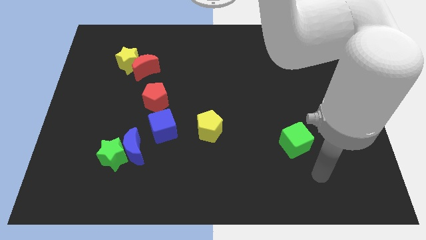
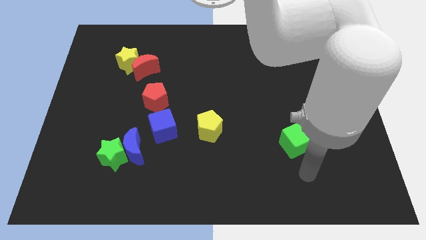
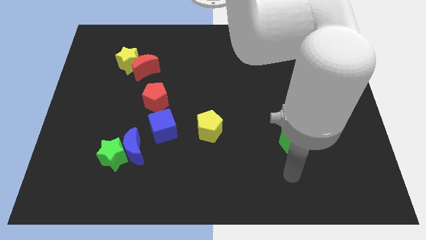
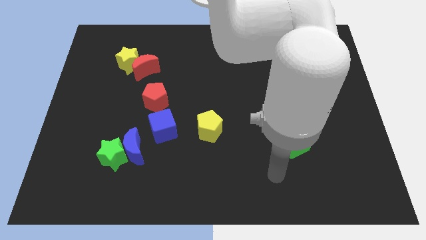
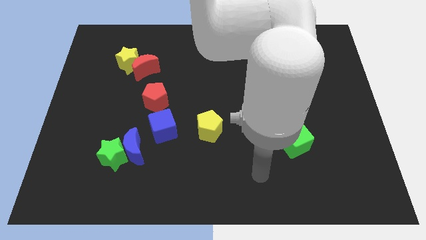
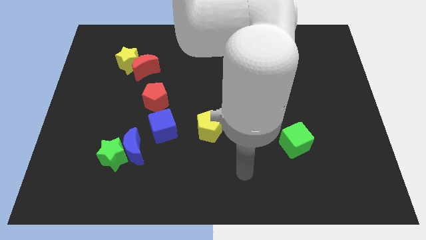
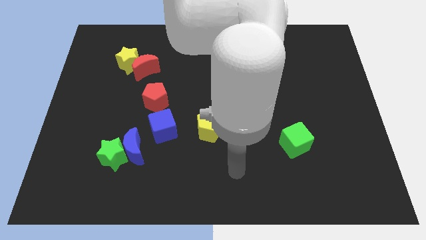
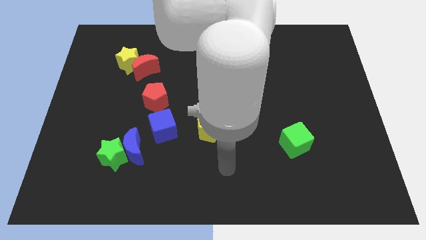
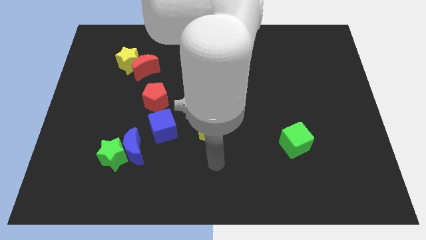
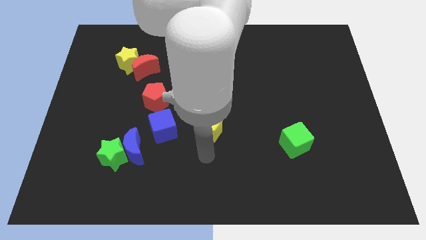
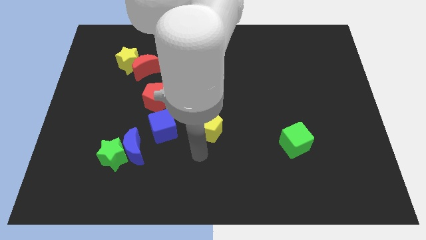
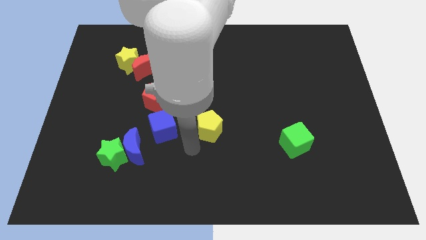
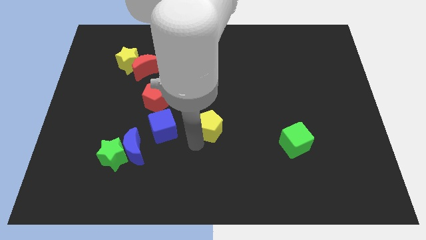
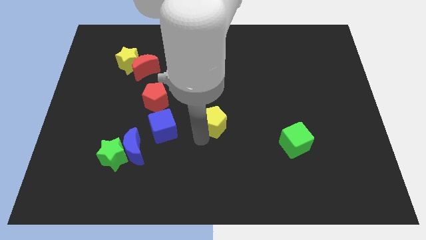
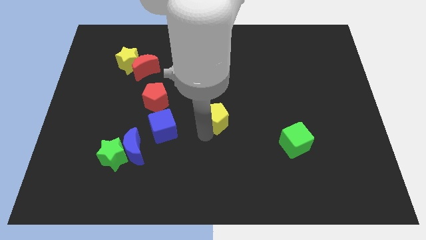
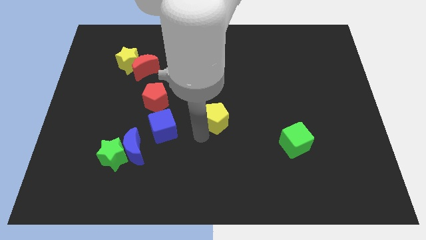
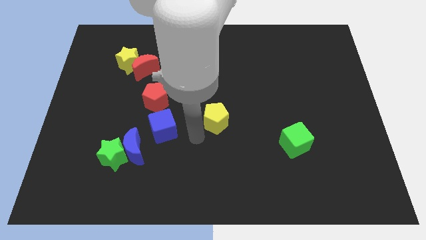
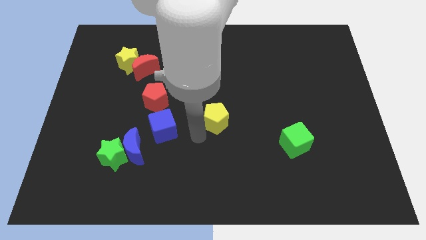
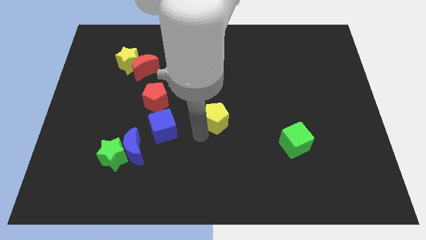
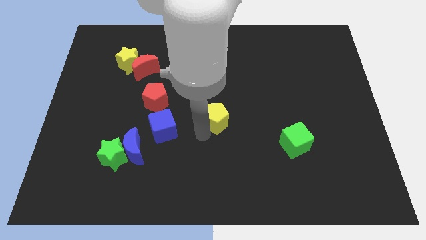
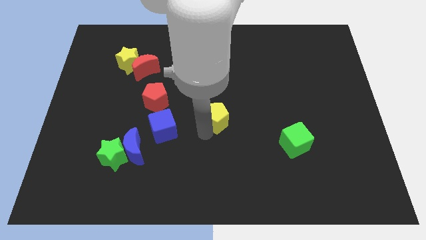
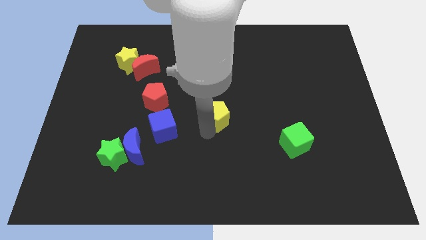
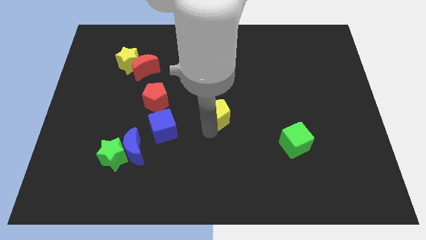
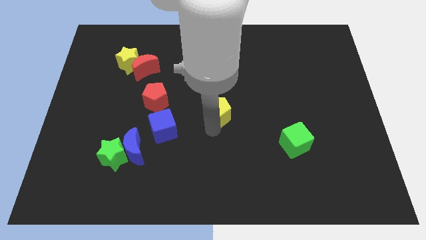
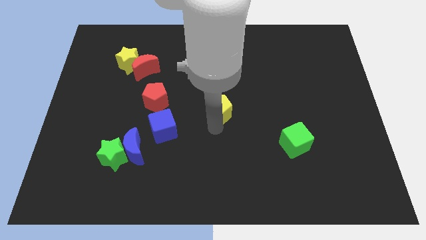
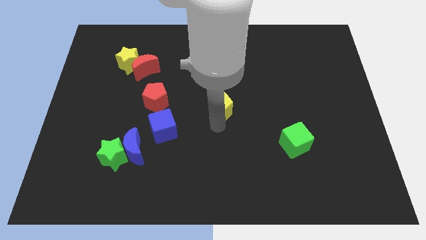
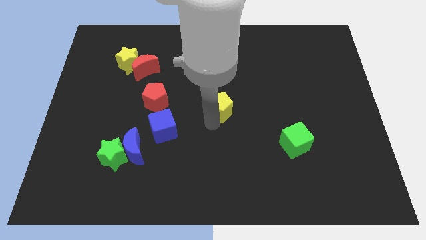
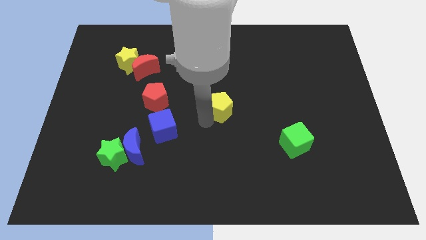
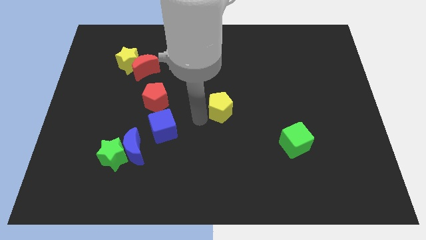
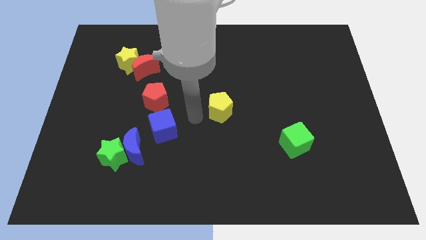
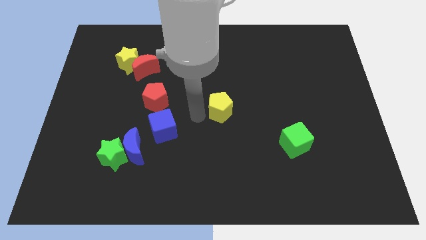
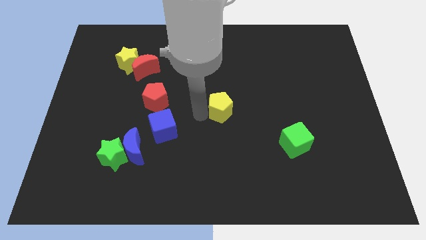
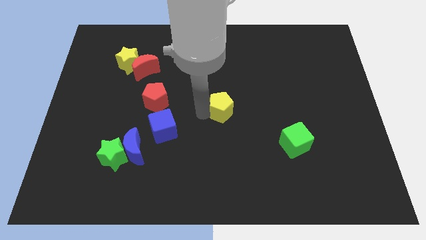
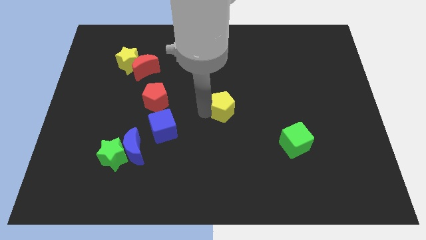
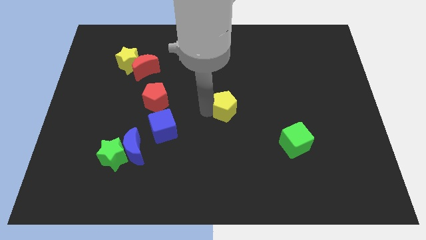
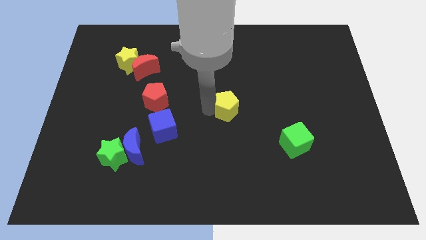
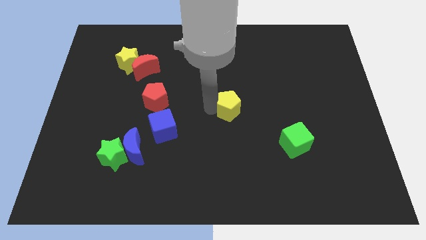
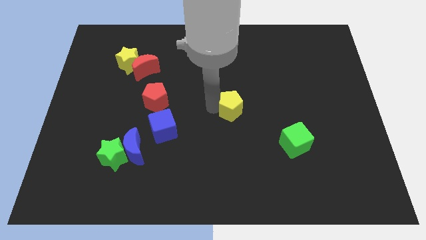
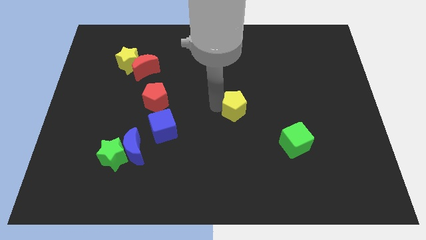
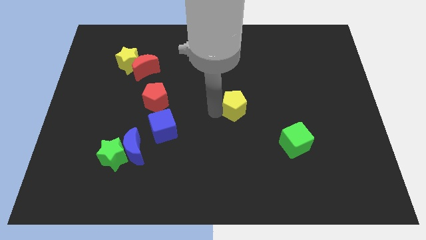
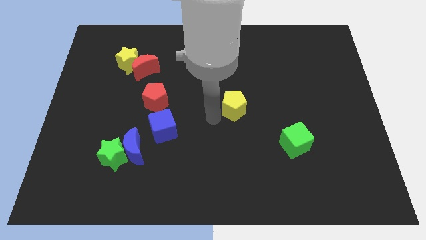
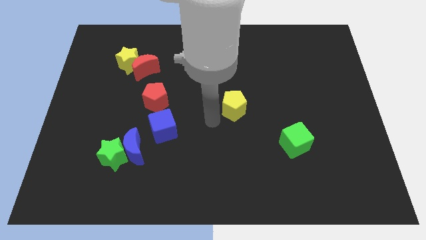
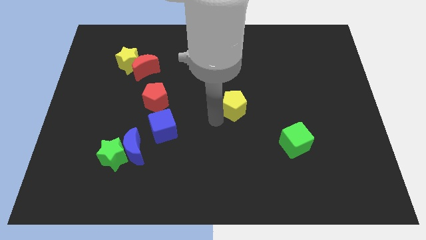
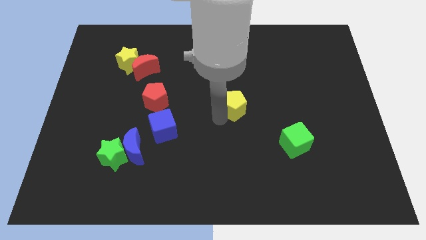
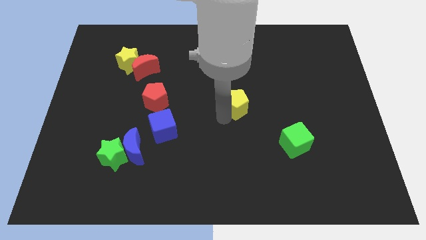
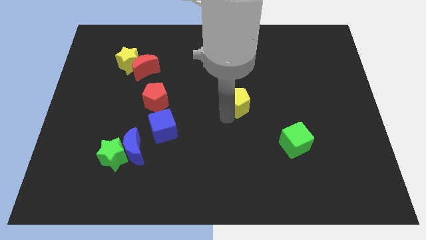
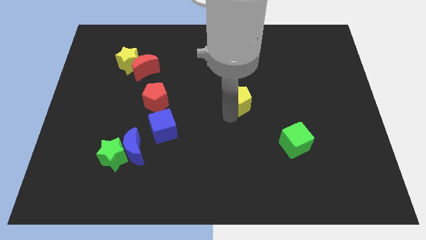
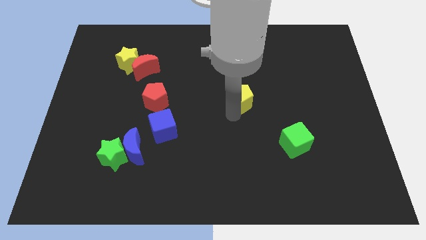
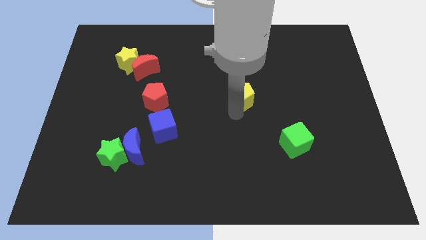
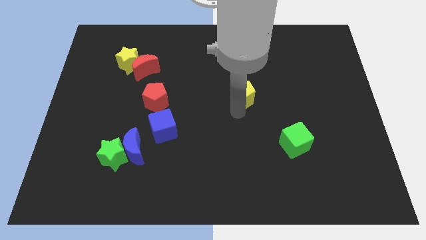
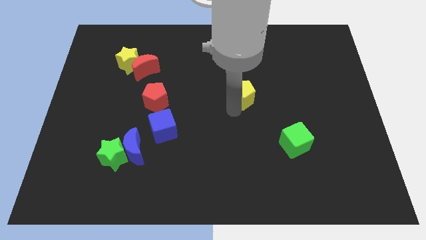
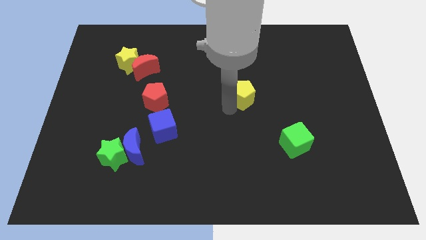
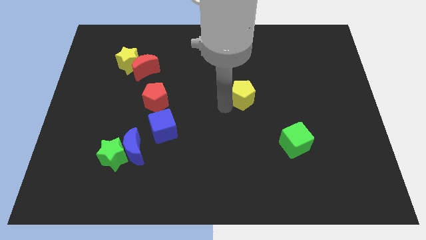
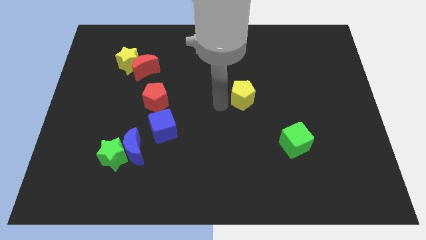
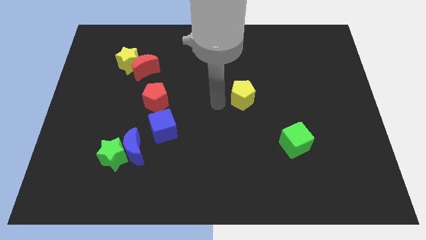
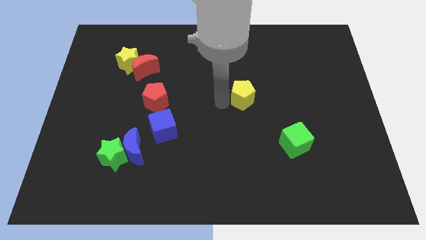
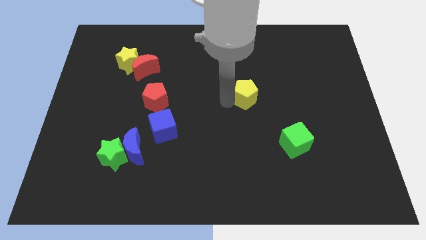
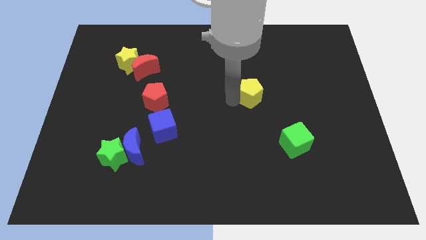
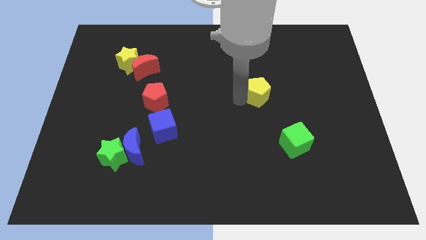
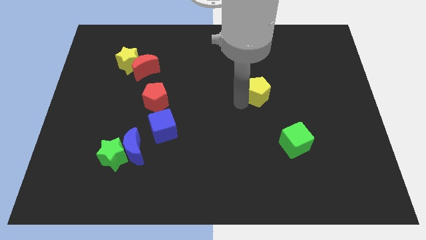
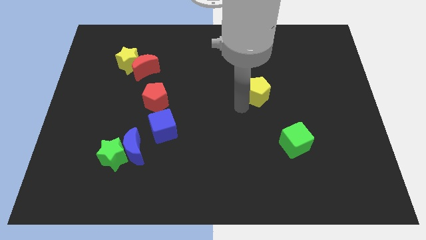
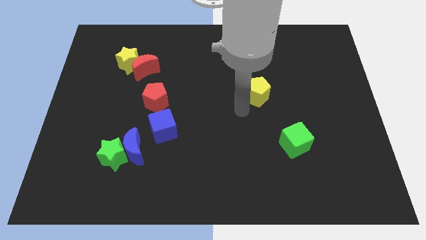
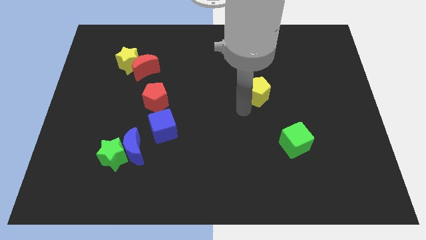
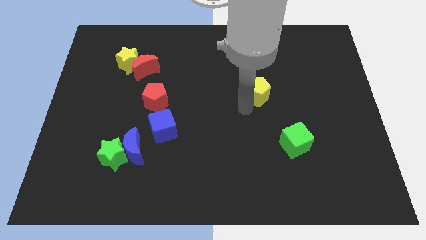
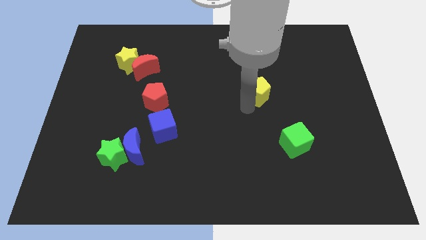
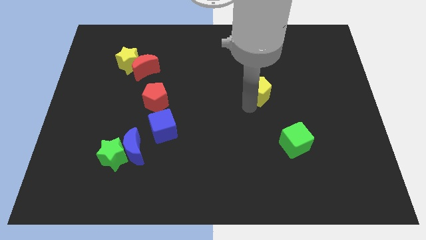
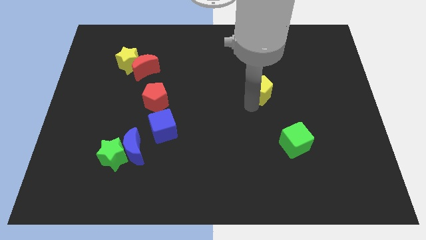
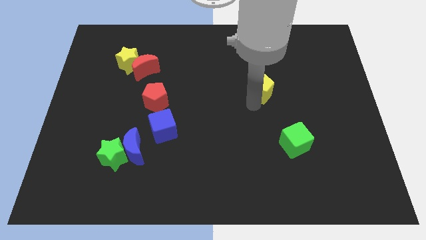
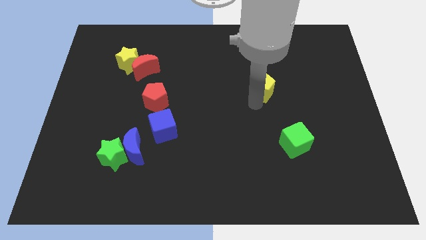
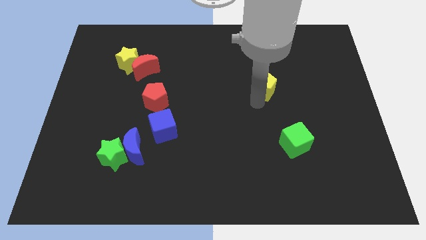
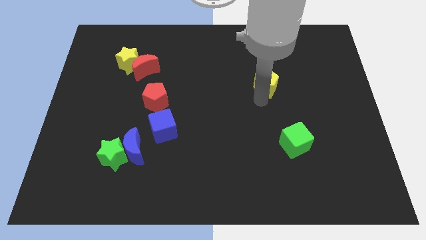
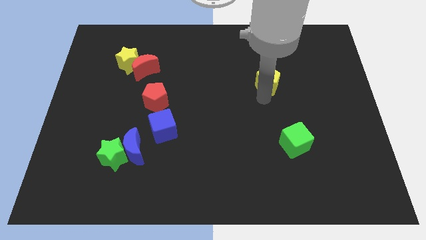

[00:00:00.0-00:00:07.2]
push the yellow pentagon up and then to the right

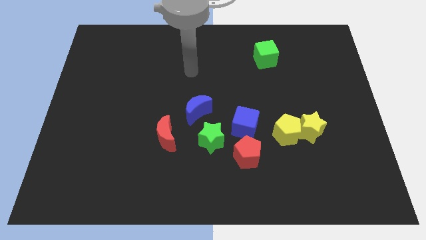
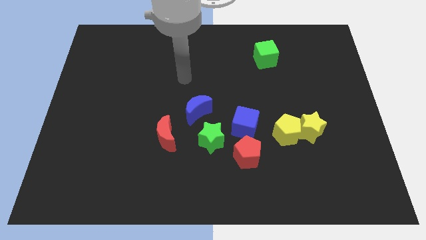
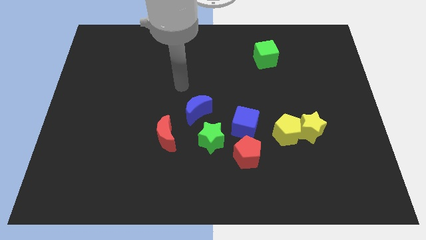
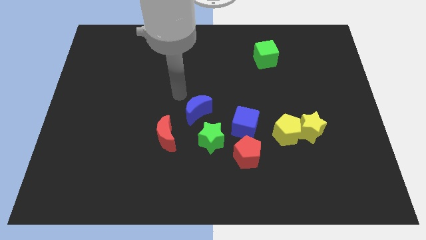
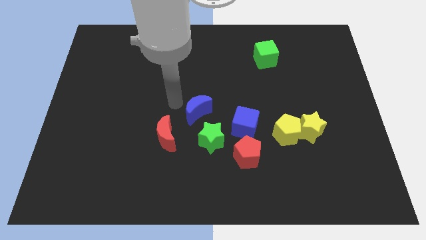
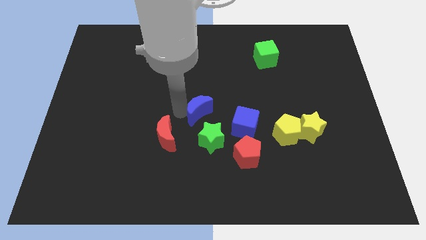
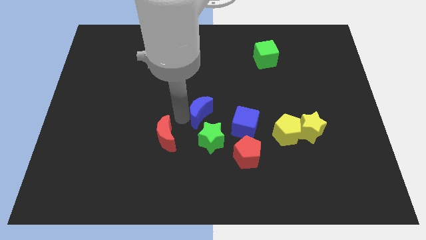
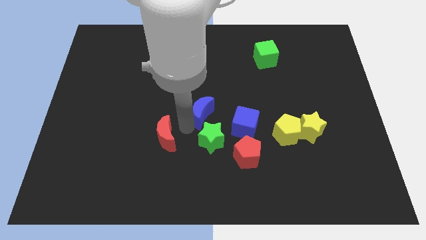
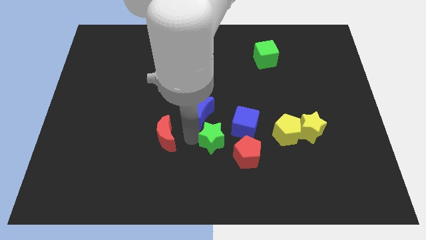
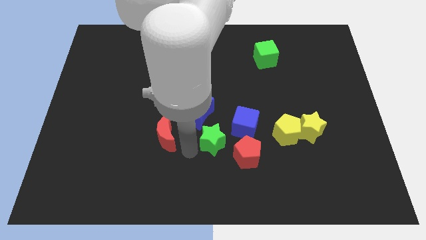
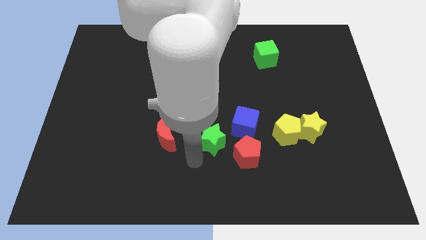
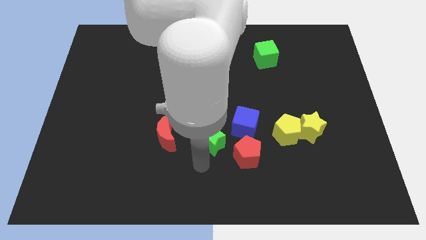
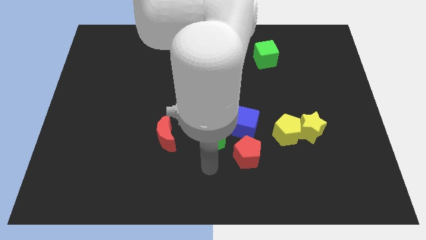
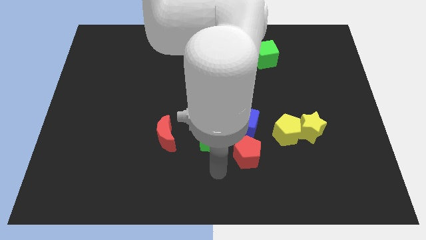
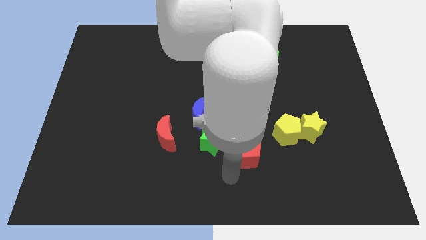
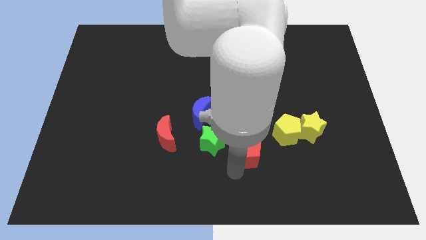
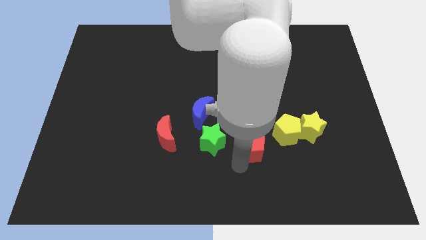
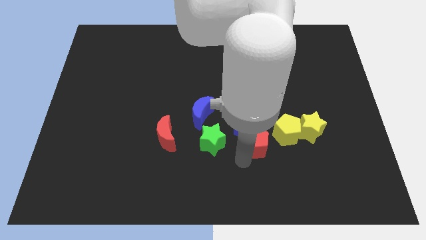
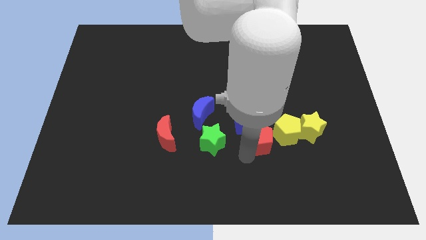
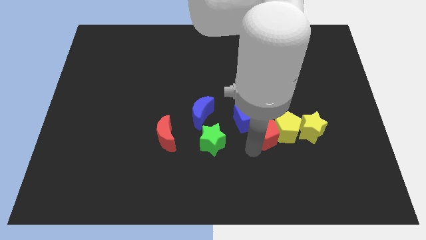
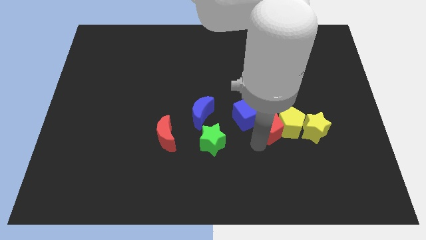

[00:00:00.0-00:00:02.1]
move the red pentagon diagonally upwards and to the right slightly
